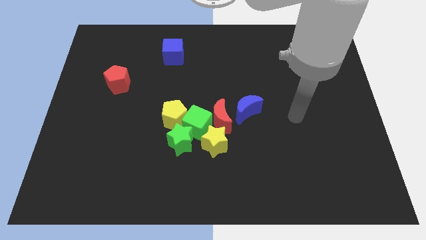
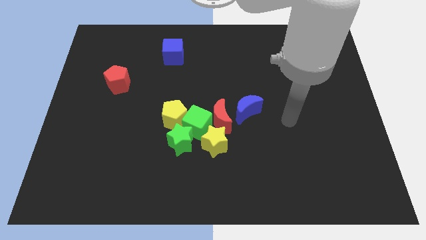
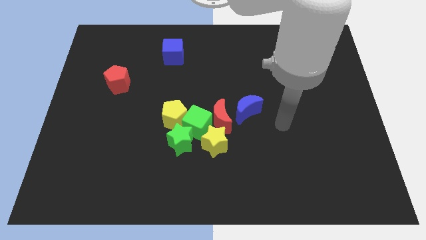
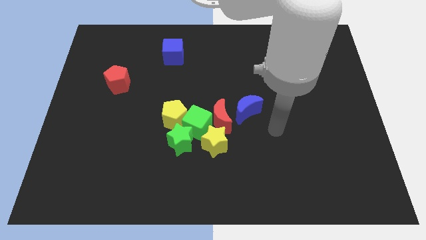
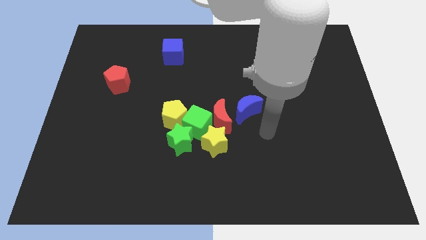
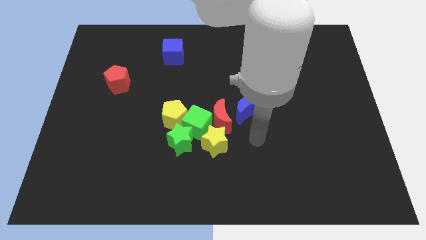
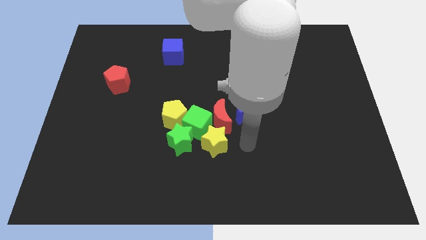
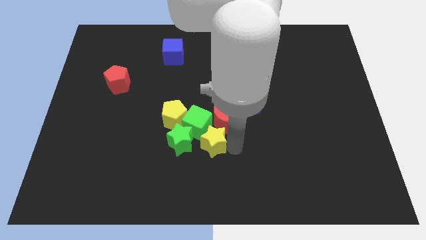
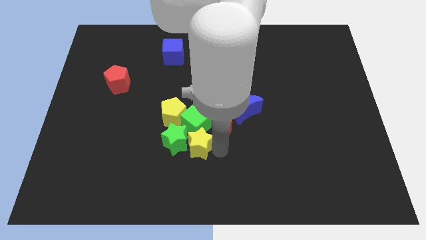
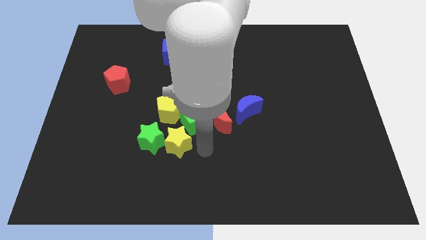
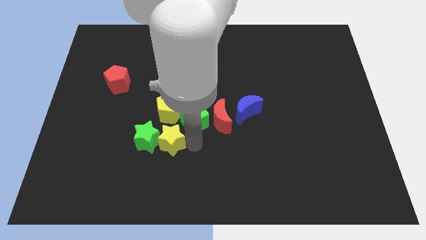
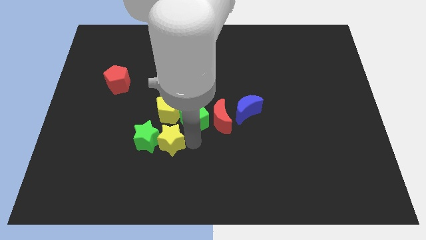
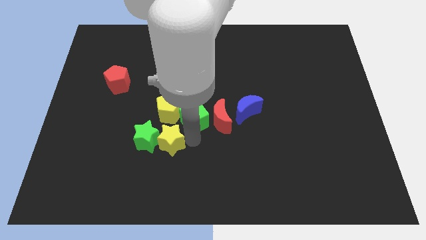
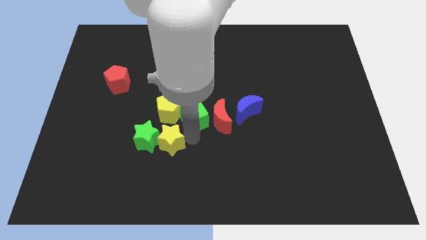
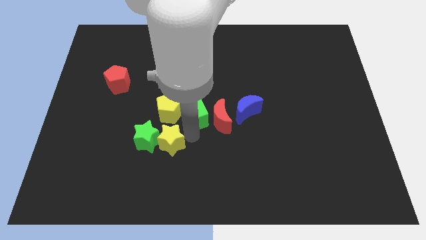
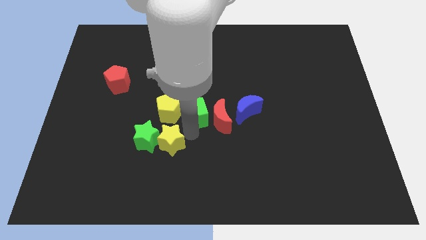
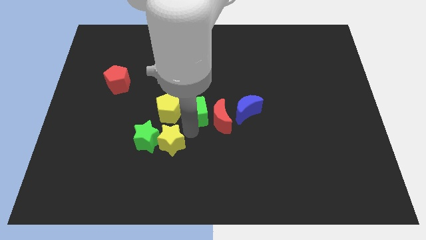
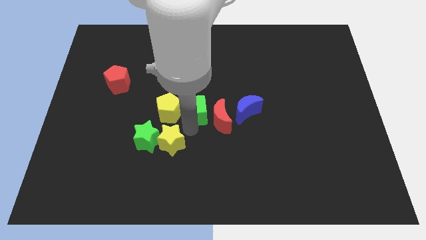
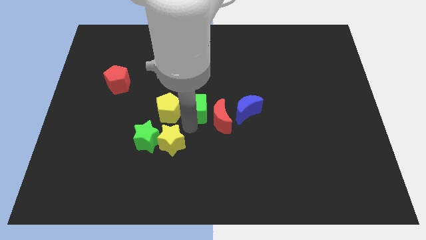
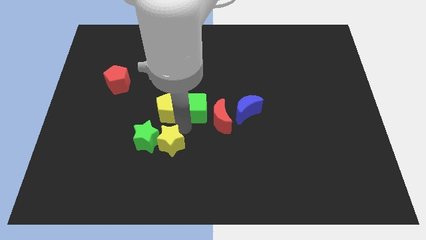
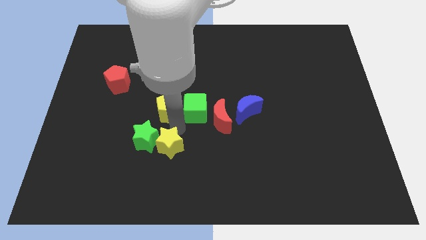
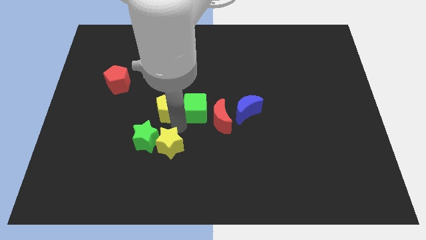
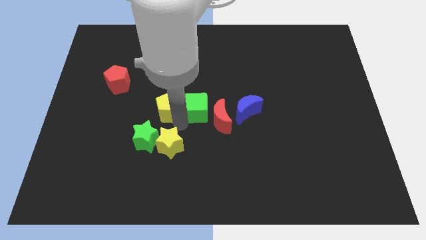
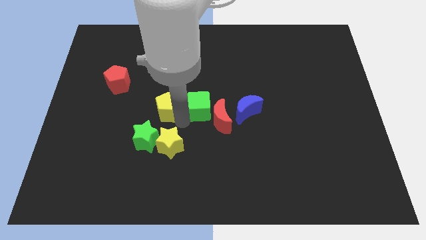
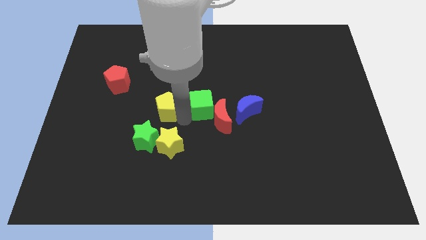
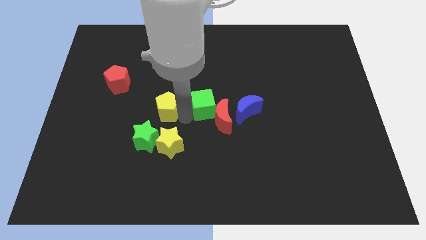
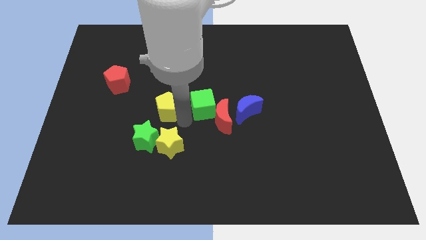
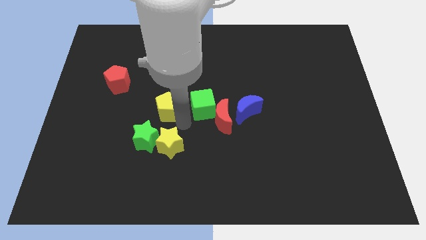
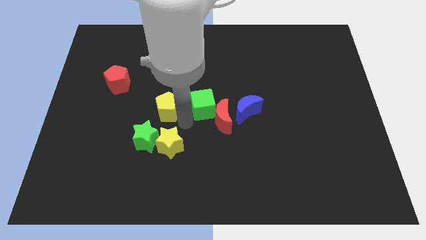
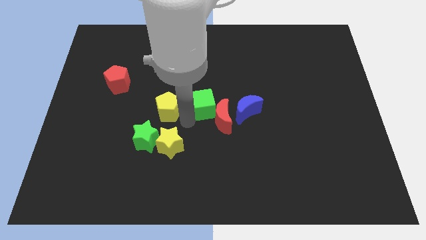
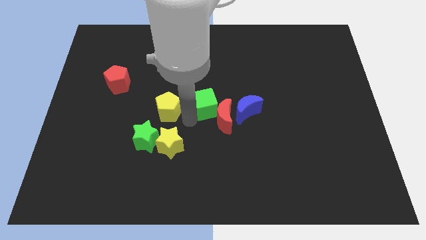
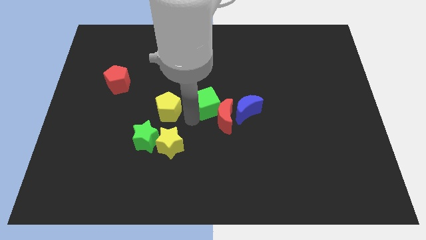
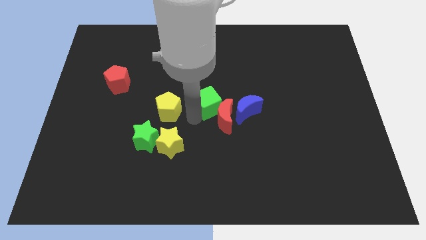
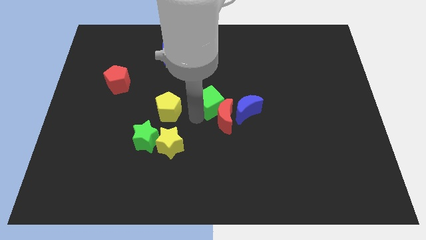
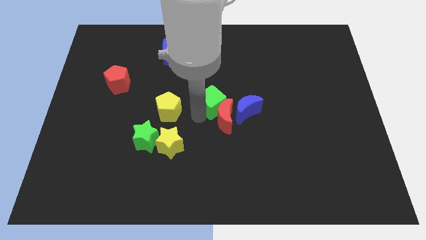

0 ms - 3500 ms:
pull the green cube apart from the clump

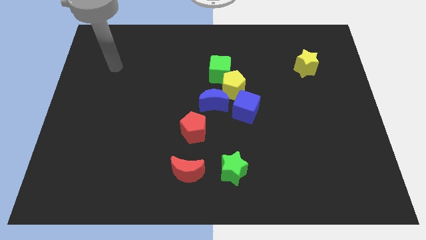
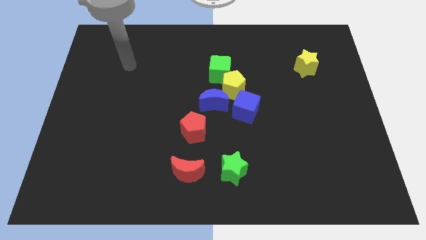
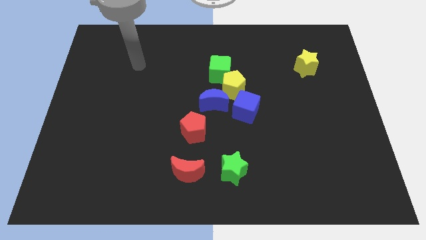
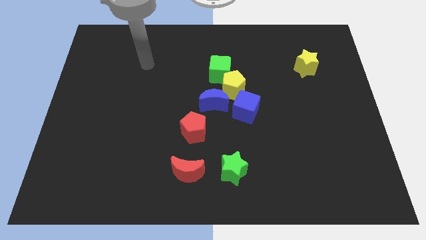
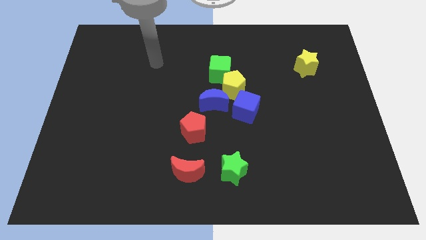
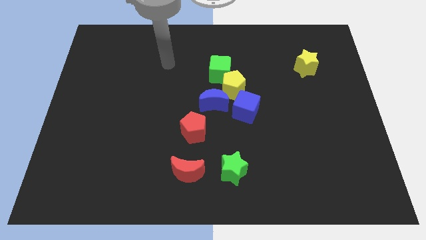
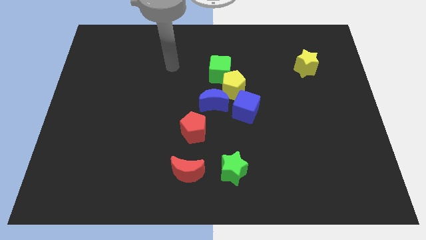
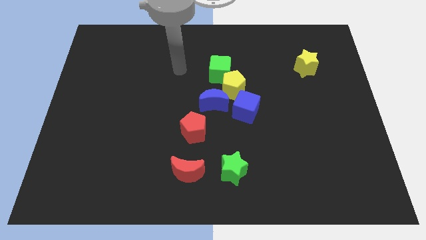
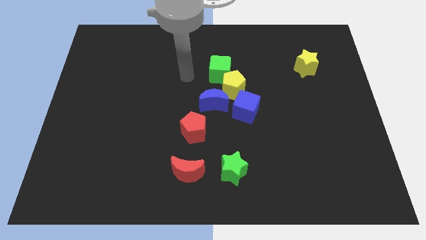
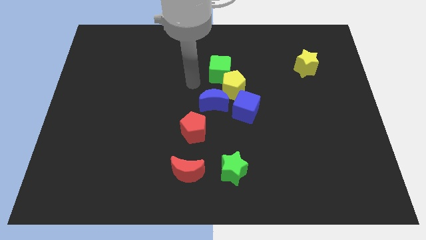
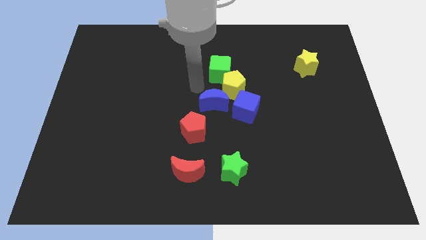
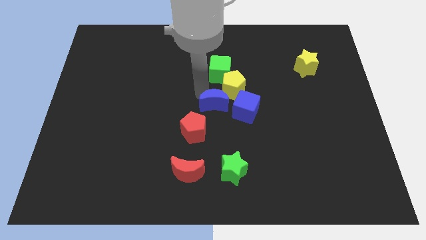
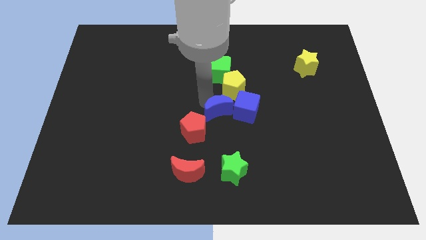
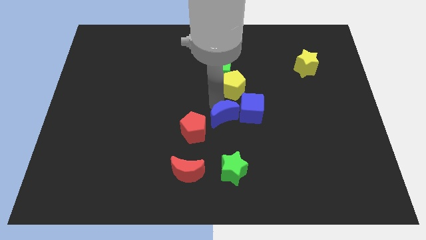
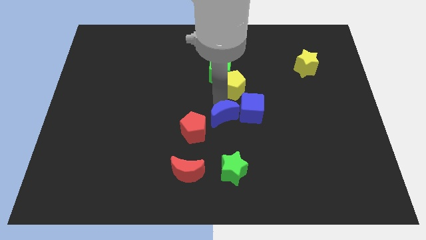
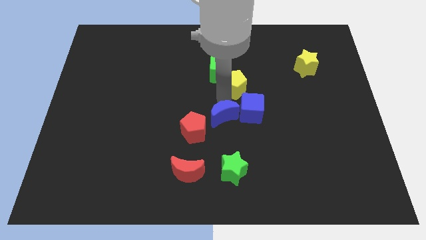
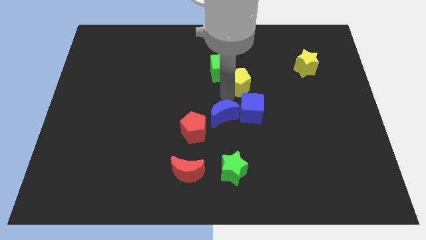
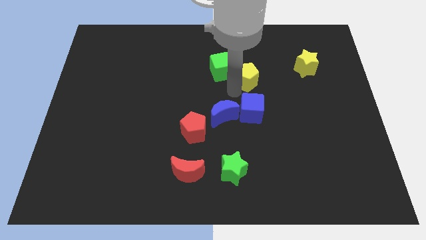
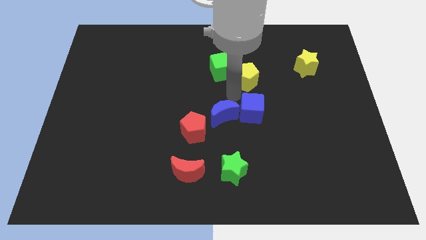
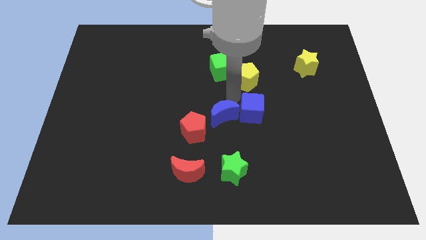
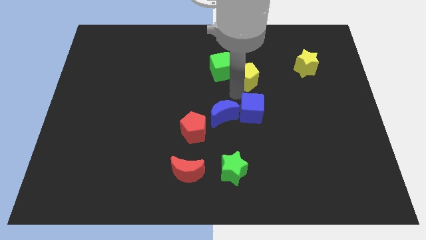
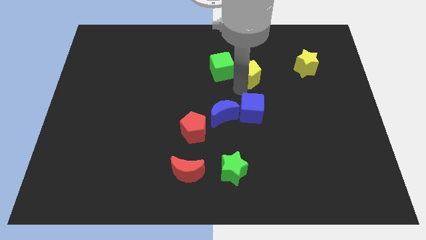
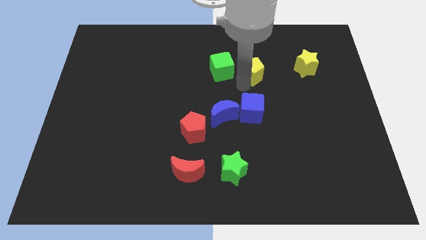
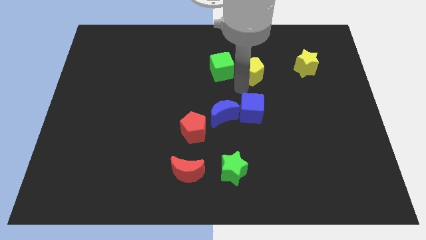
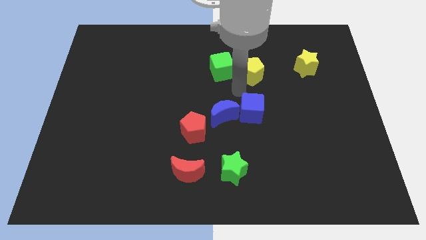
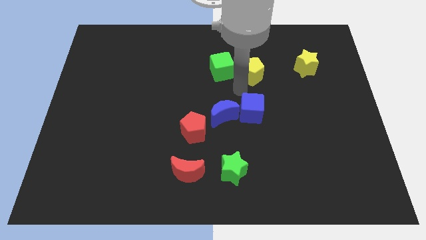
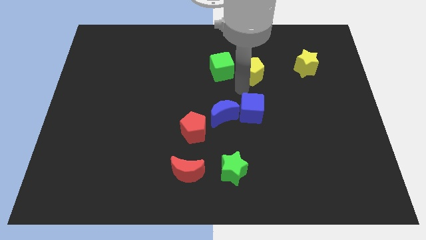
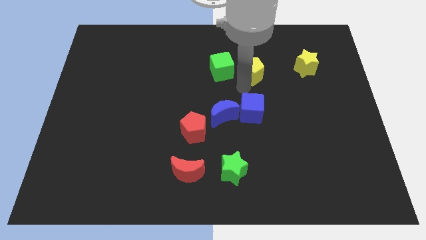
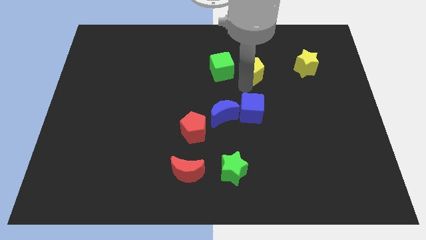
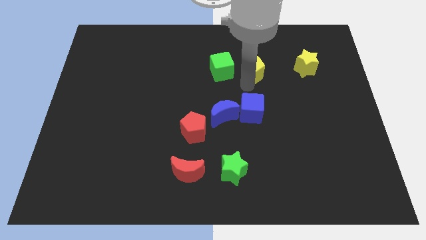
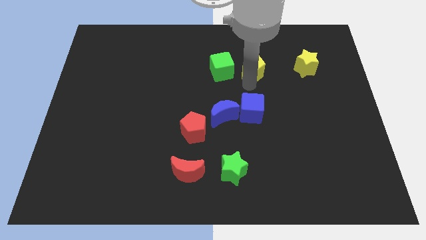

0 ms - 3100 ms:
move the yellow pentagon away from the group

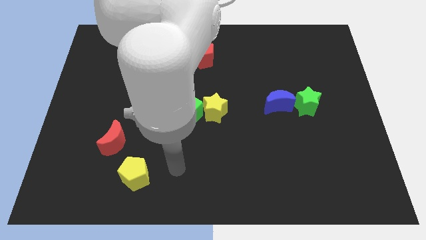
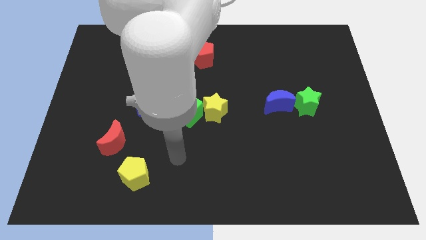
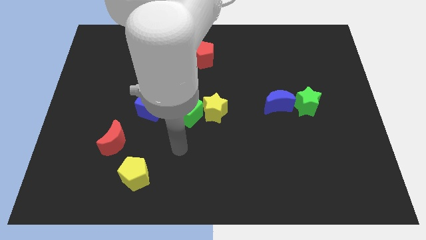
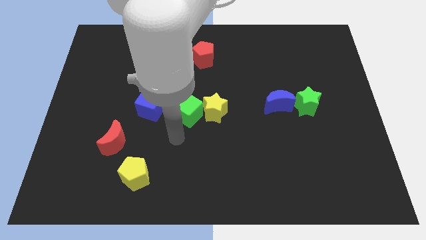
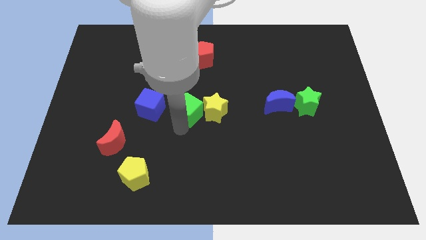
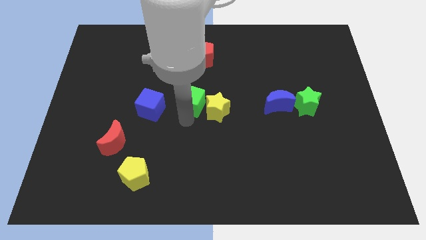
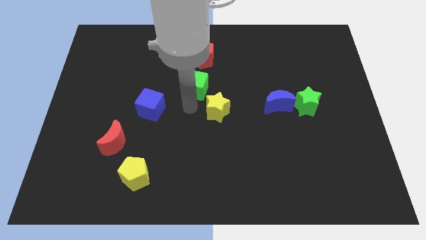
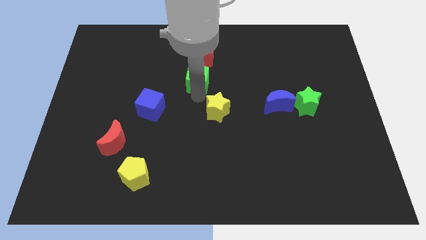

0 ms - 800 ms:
separate the yellow star from the green cube

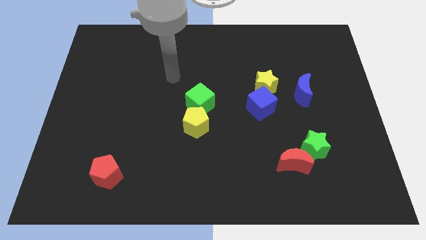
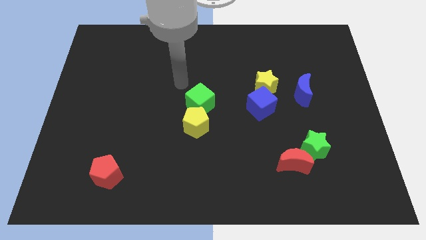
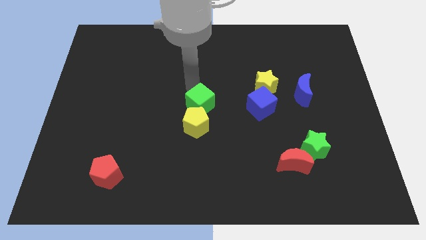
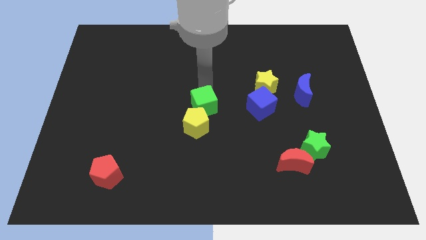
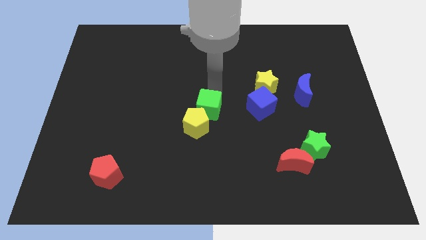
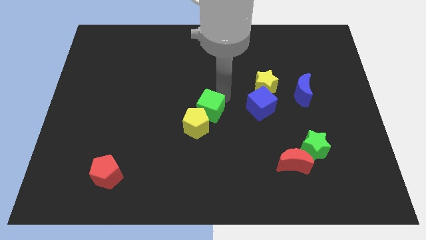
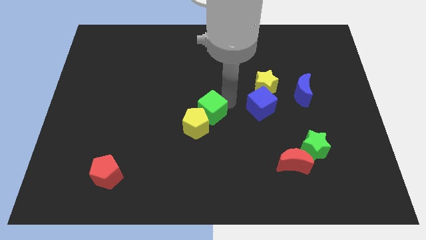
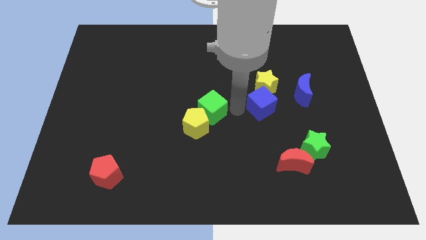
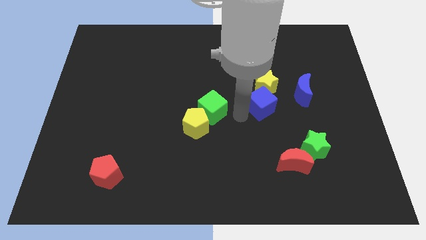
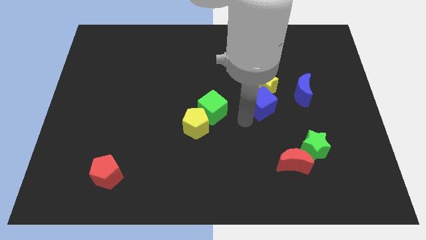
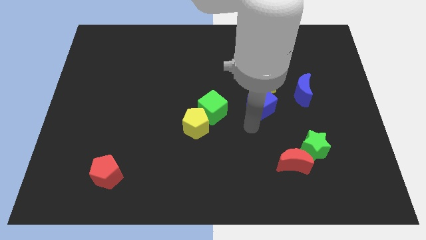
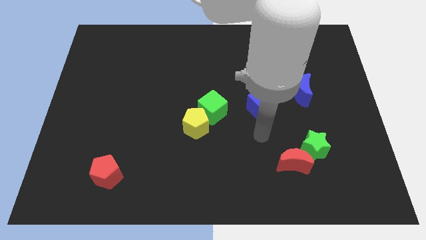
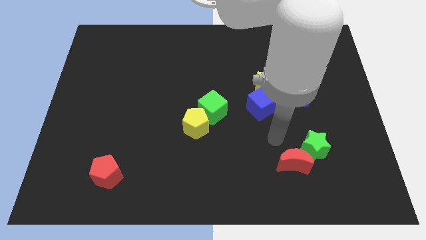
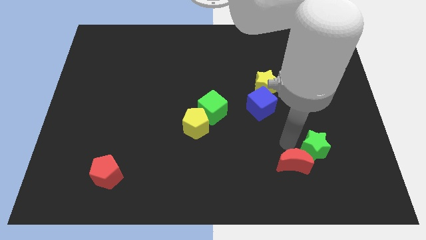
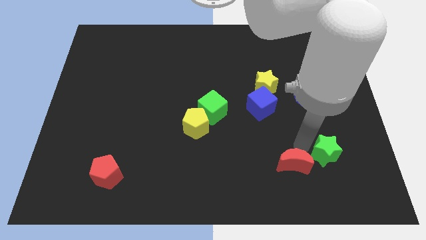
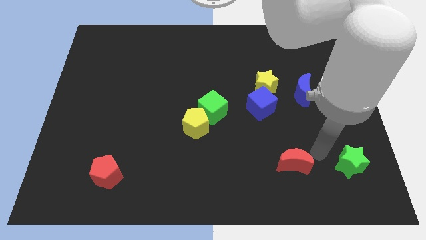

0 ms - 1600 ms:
separate the red moon from the green star

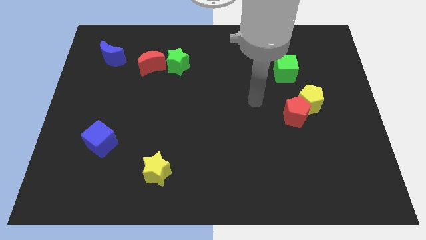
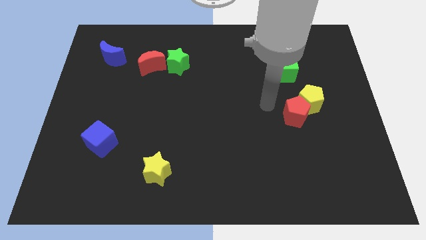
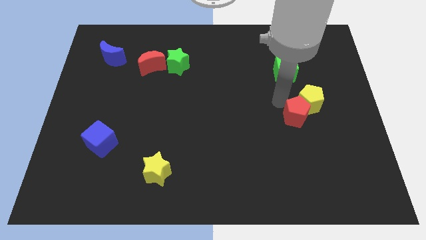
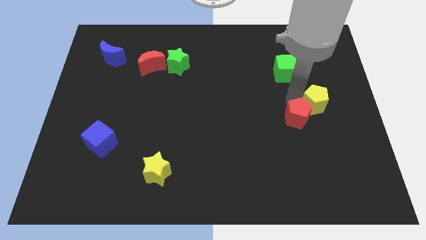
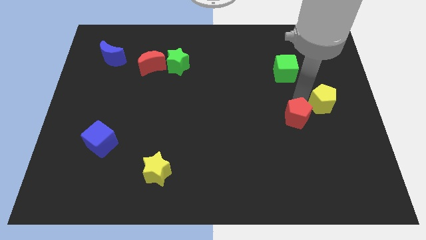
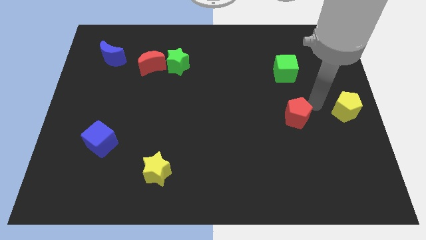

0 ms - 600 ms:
separate the red pentagon from the yellow pentagon
